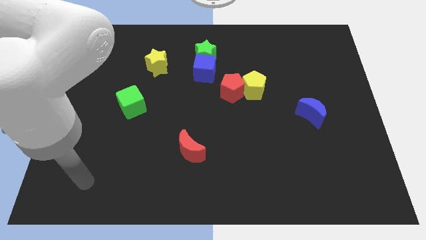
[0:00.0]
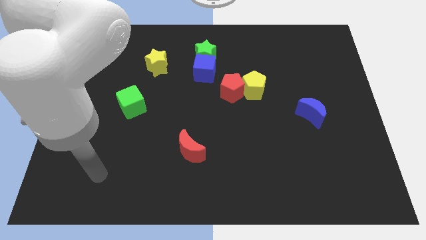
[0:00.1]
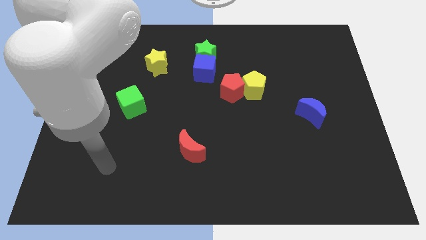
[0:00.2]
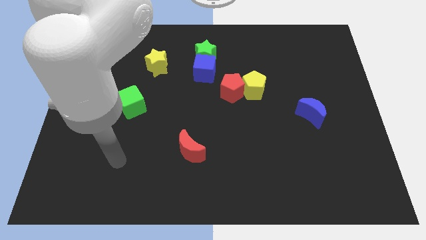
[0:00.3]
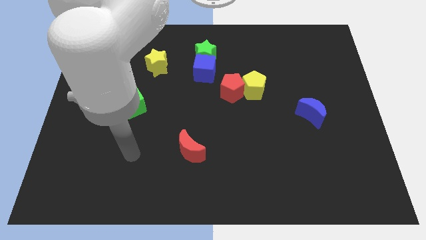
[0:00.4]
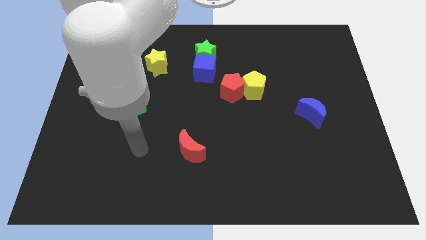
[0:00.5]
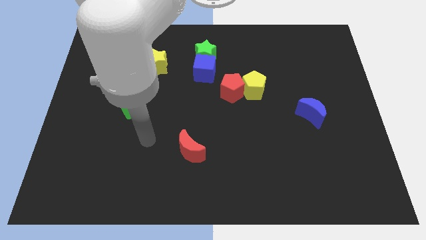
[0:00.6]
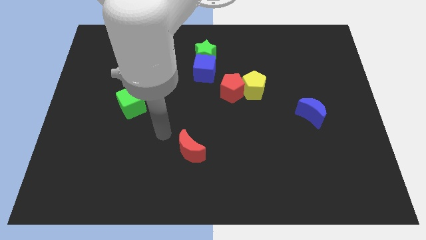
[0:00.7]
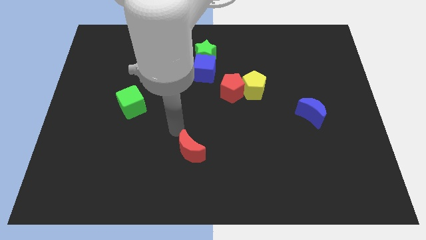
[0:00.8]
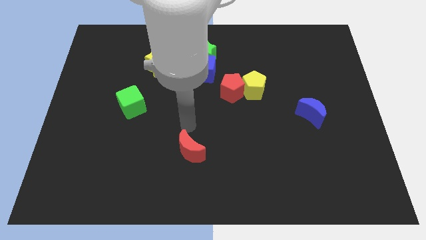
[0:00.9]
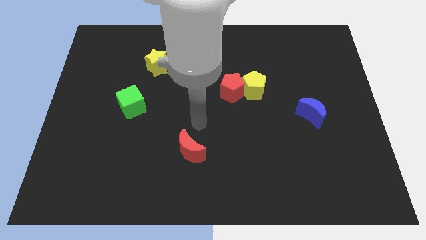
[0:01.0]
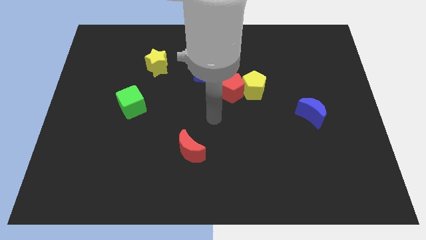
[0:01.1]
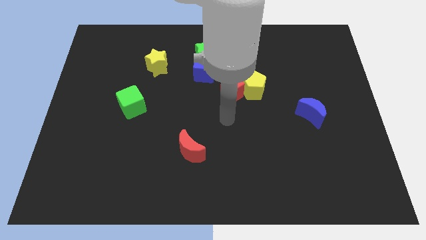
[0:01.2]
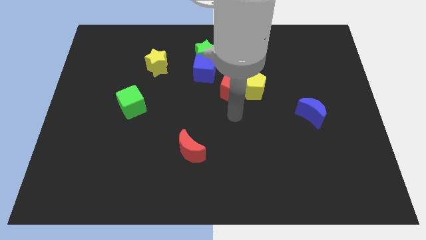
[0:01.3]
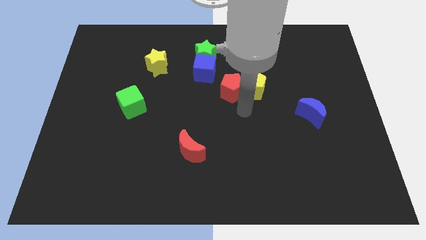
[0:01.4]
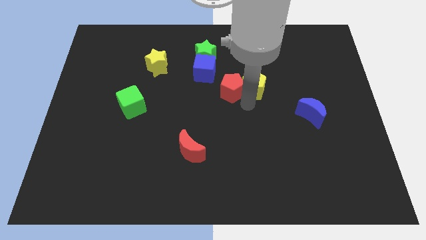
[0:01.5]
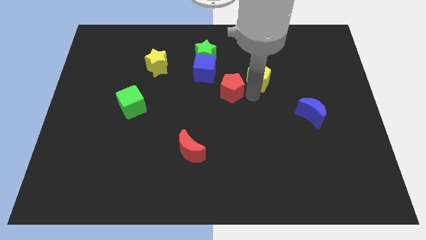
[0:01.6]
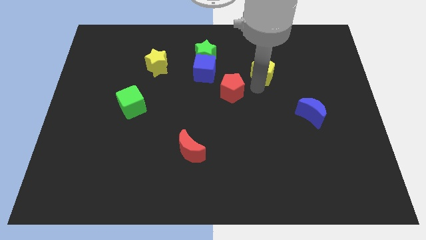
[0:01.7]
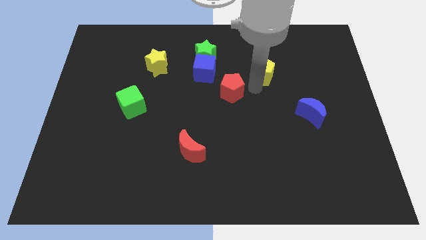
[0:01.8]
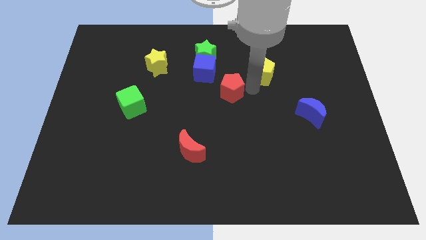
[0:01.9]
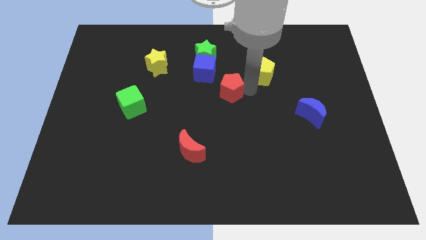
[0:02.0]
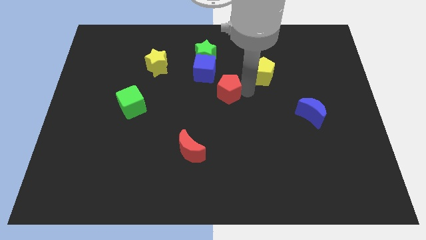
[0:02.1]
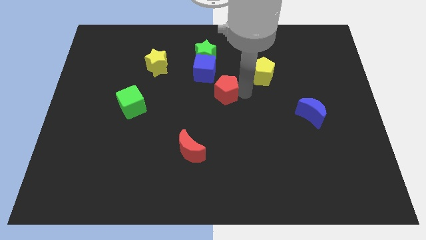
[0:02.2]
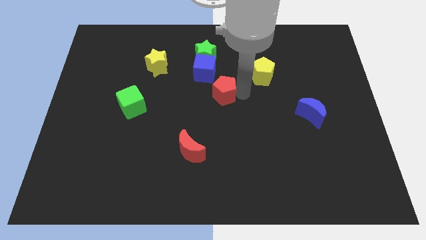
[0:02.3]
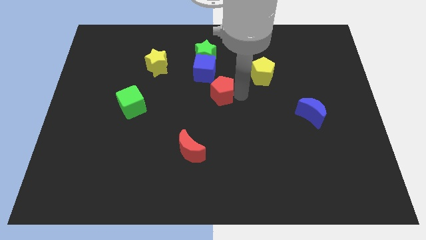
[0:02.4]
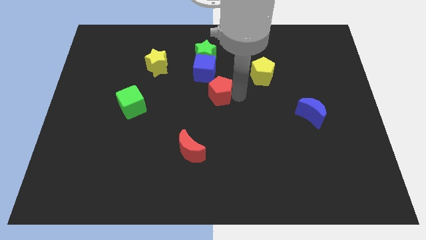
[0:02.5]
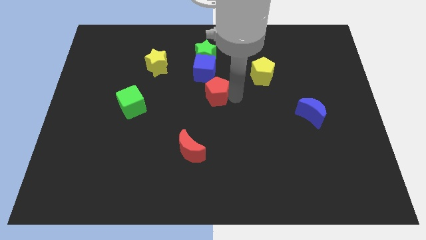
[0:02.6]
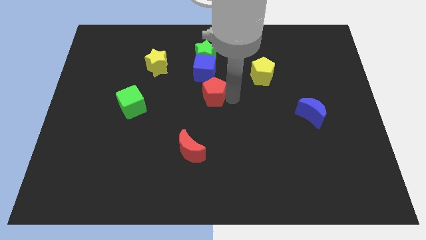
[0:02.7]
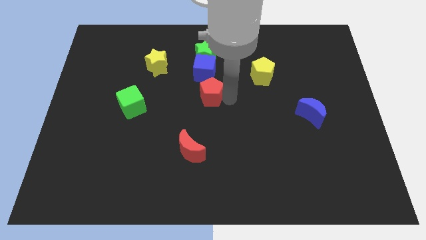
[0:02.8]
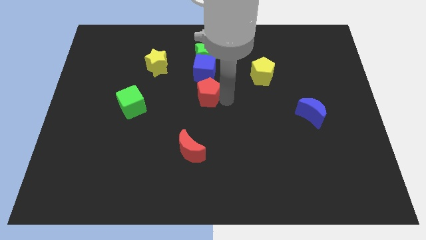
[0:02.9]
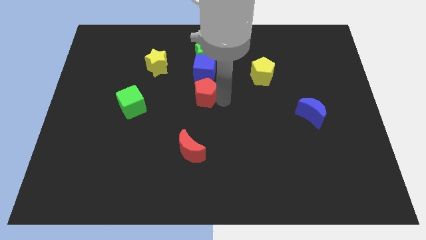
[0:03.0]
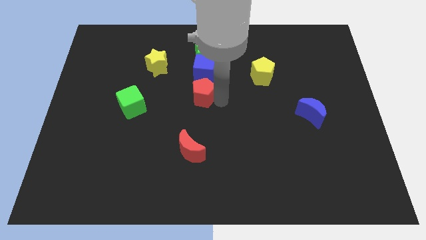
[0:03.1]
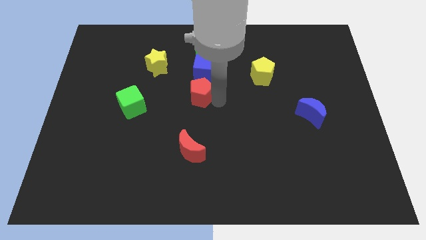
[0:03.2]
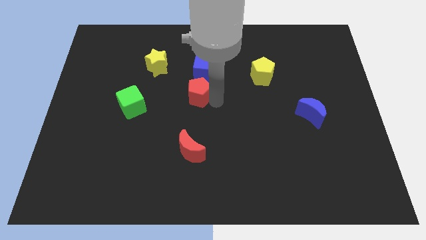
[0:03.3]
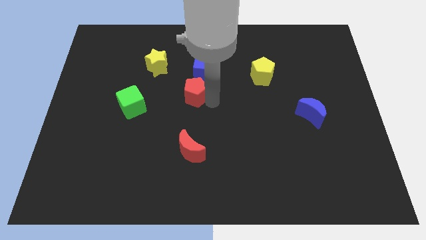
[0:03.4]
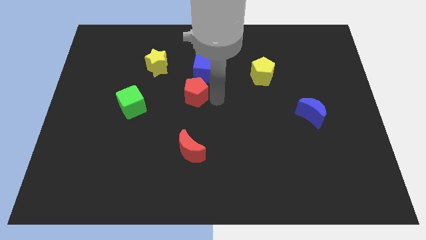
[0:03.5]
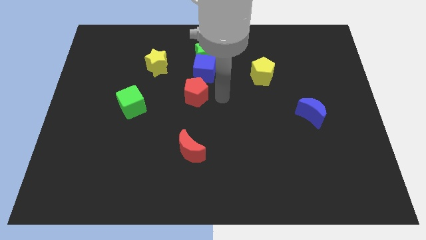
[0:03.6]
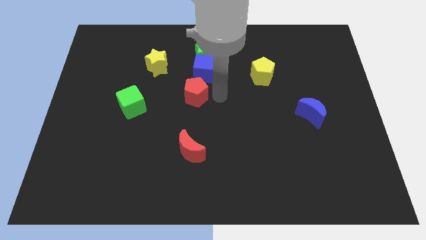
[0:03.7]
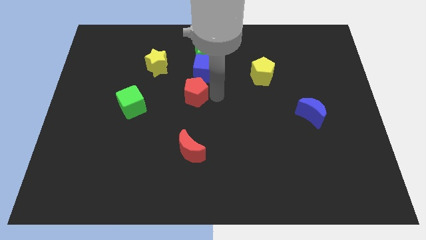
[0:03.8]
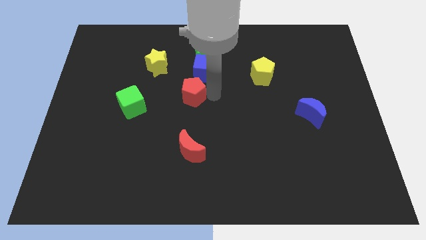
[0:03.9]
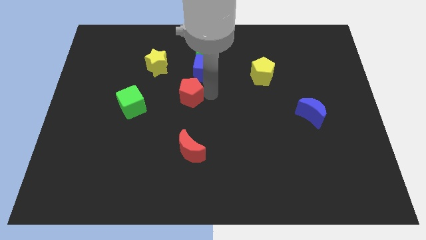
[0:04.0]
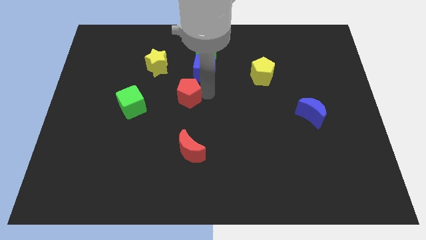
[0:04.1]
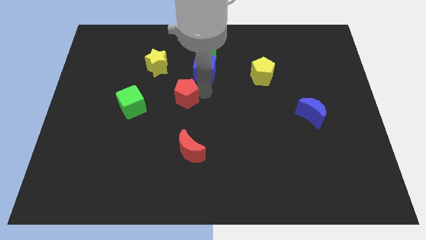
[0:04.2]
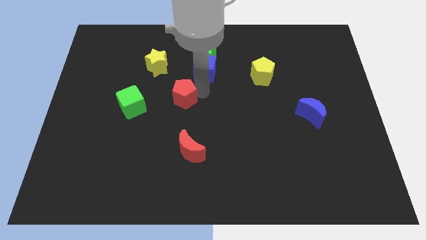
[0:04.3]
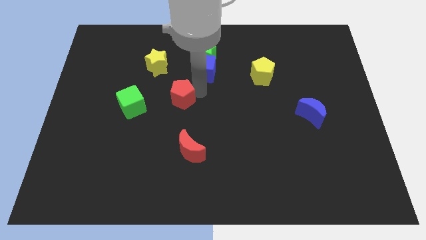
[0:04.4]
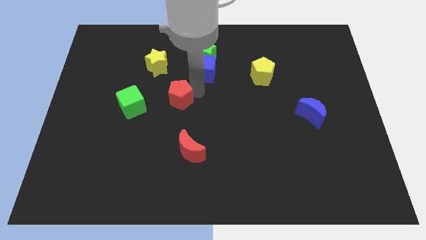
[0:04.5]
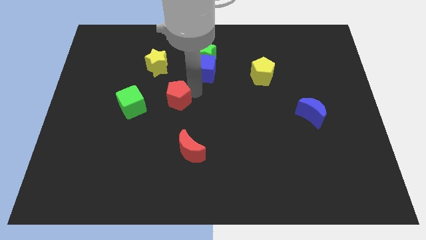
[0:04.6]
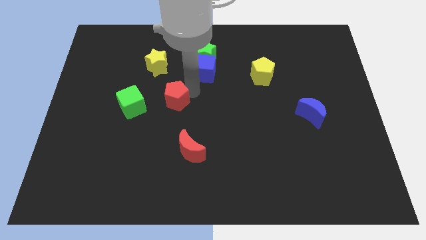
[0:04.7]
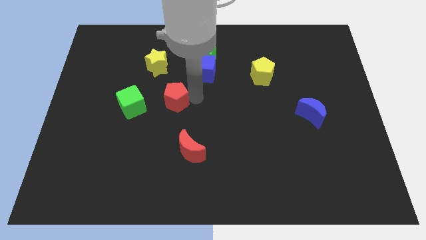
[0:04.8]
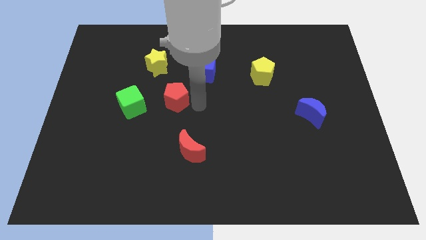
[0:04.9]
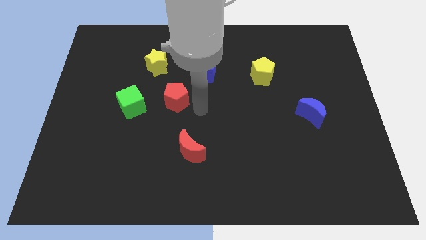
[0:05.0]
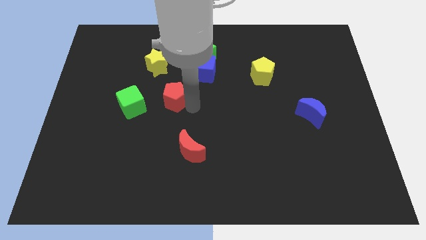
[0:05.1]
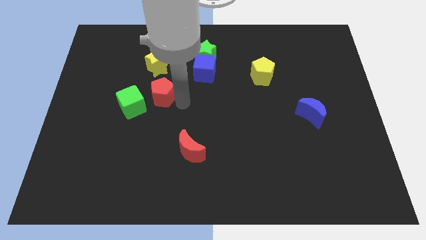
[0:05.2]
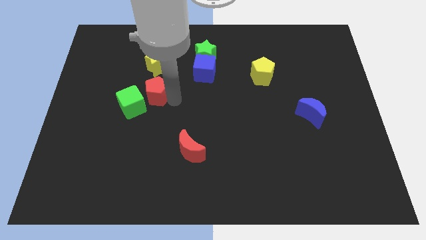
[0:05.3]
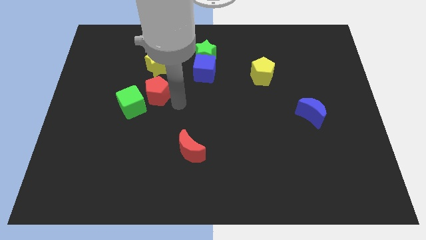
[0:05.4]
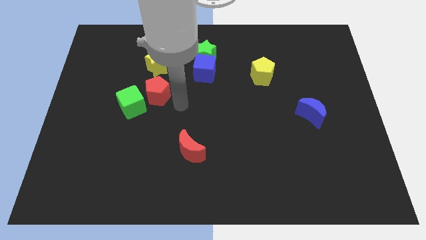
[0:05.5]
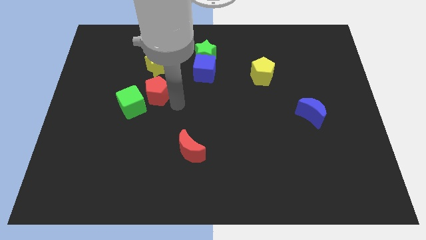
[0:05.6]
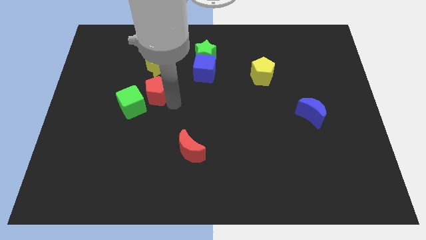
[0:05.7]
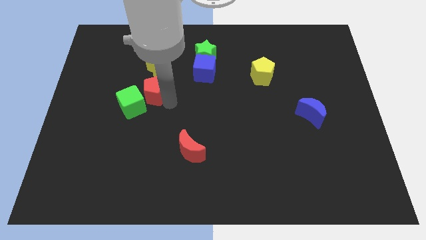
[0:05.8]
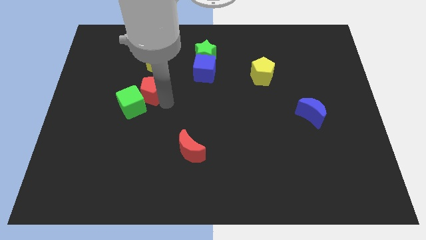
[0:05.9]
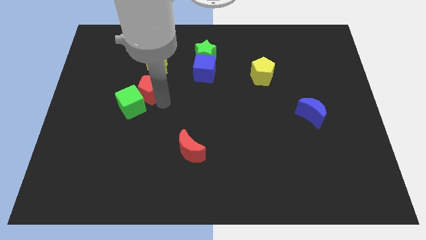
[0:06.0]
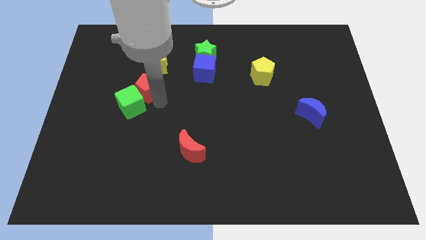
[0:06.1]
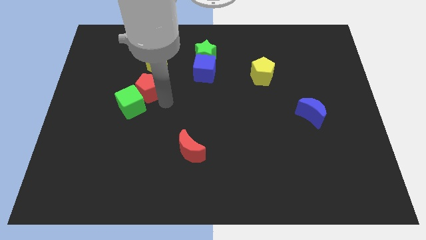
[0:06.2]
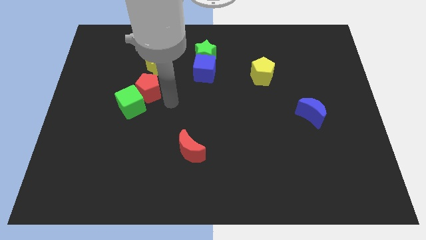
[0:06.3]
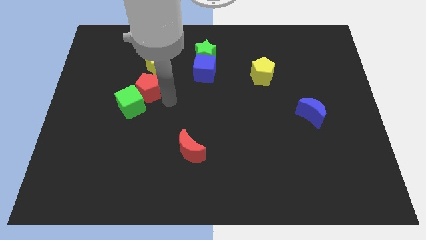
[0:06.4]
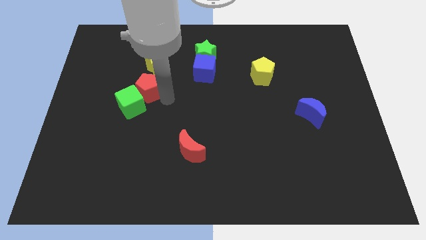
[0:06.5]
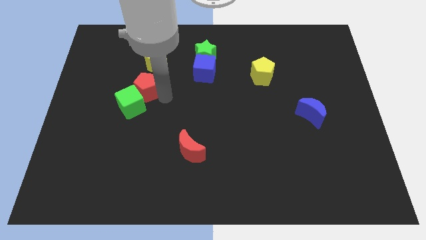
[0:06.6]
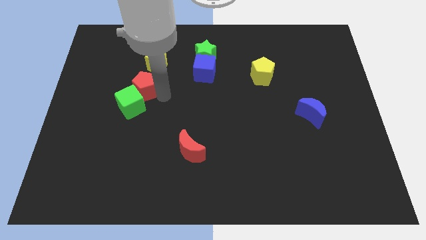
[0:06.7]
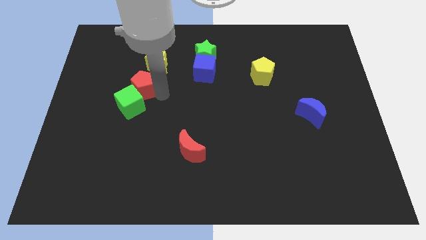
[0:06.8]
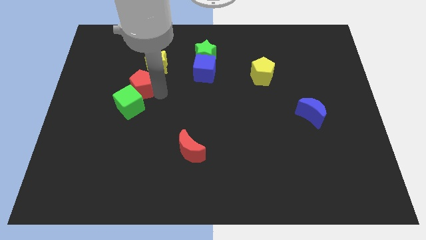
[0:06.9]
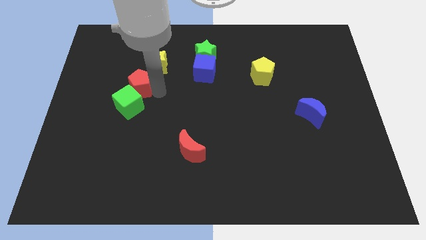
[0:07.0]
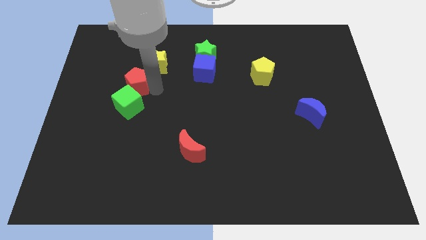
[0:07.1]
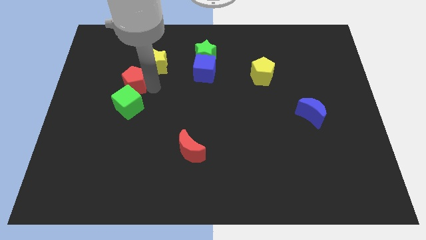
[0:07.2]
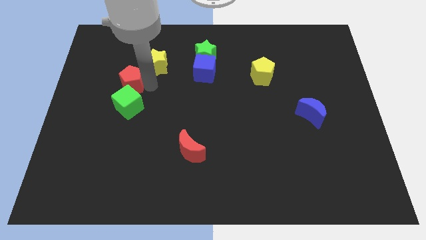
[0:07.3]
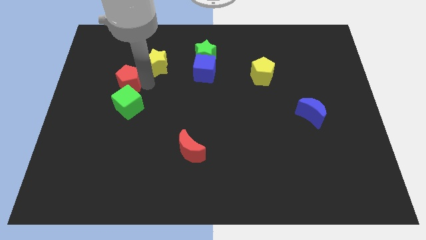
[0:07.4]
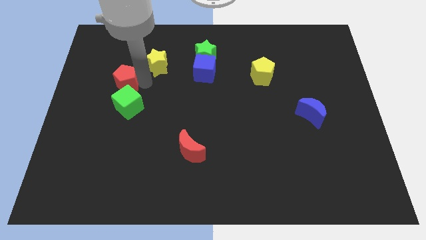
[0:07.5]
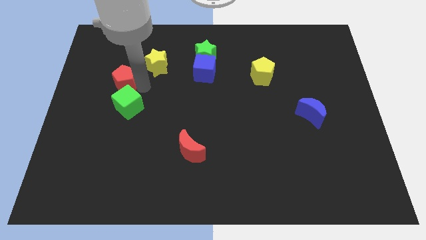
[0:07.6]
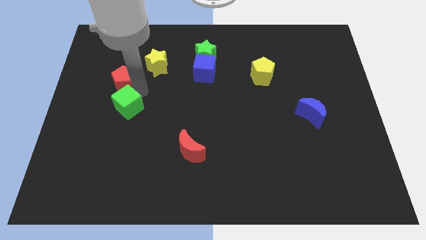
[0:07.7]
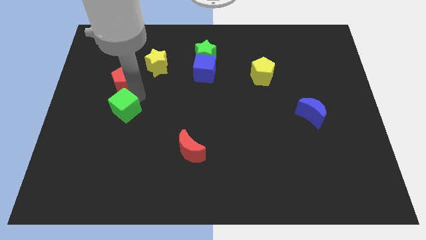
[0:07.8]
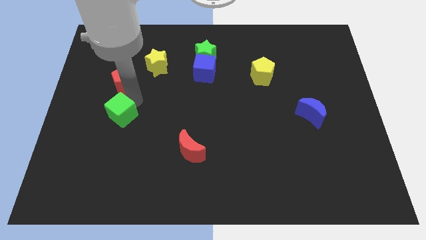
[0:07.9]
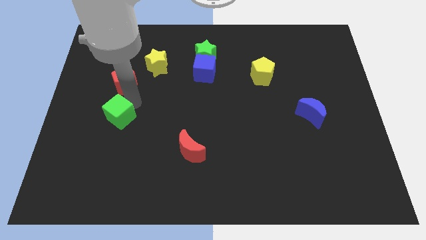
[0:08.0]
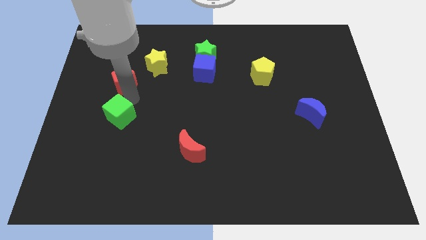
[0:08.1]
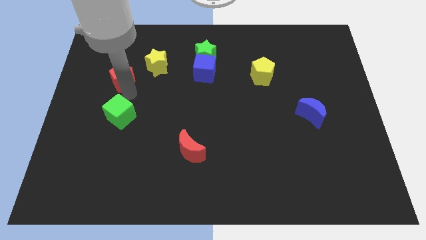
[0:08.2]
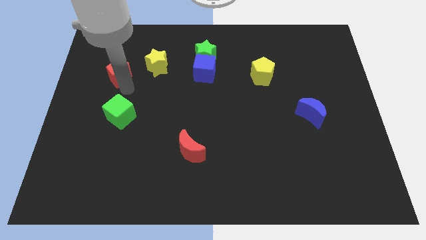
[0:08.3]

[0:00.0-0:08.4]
push the red pentagon left of the yellow star
